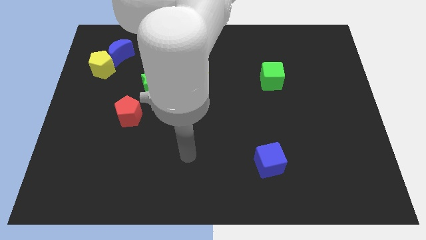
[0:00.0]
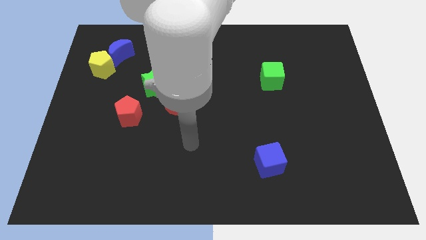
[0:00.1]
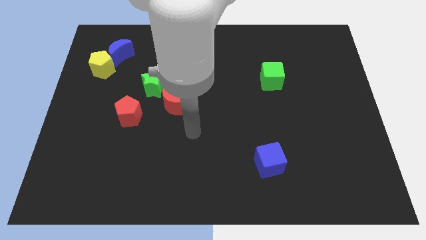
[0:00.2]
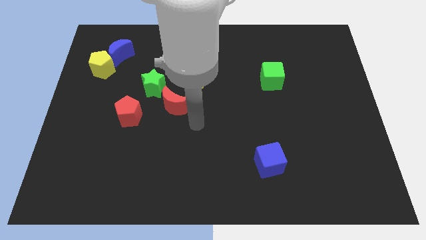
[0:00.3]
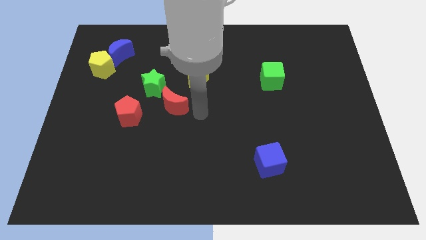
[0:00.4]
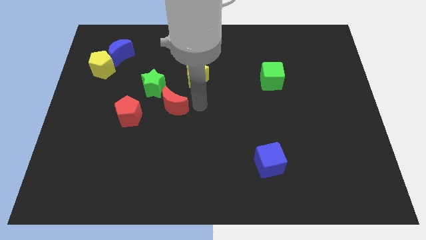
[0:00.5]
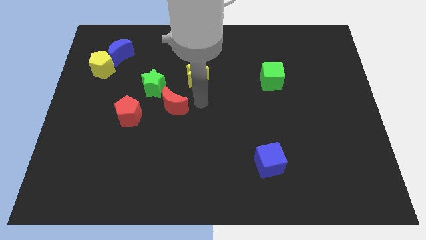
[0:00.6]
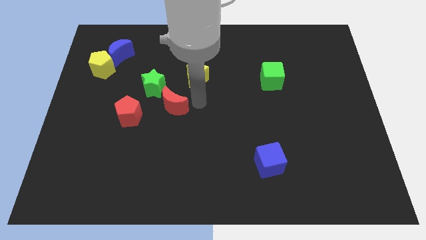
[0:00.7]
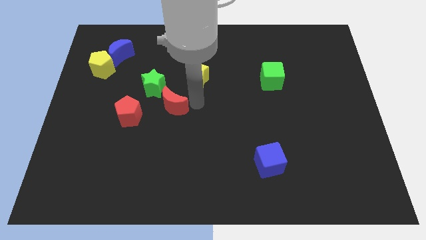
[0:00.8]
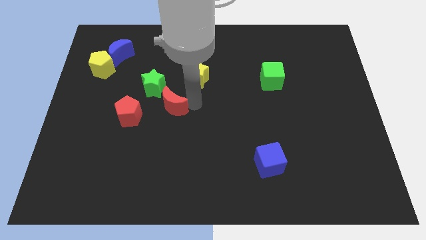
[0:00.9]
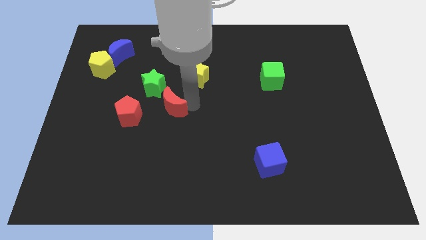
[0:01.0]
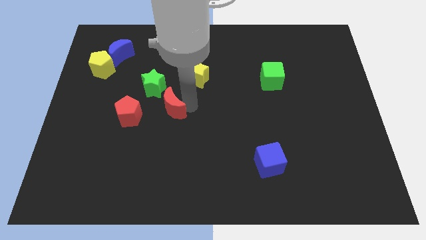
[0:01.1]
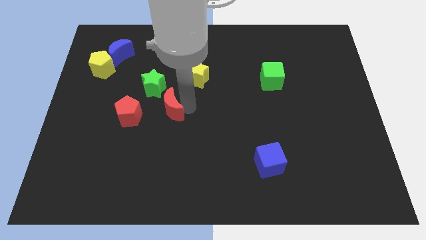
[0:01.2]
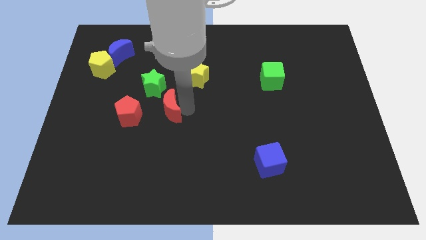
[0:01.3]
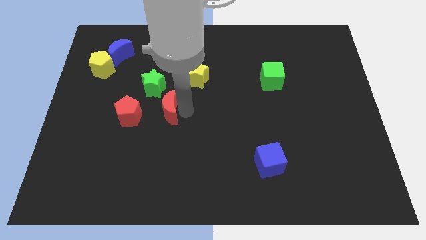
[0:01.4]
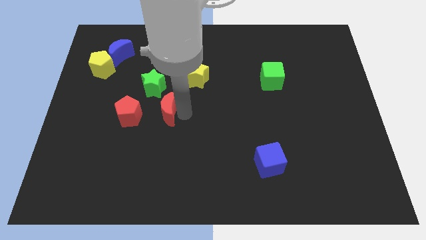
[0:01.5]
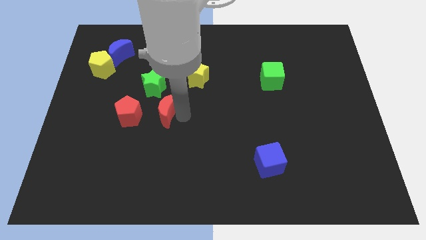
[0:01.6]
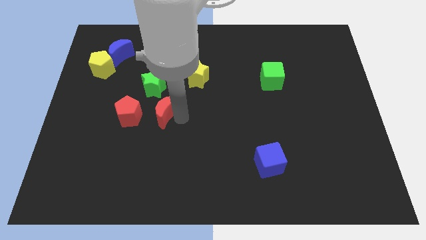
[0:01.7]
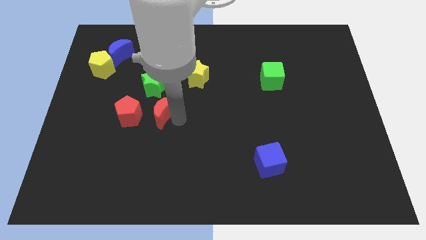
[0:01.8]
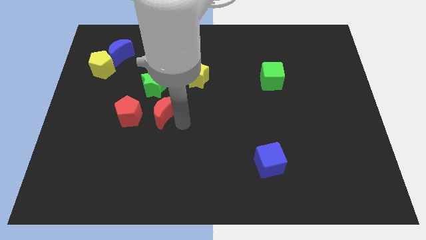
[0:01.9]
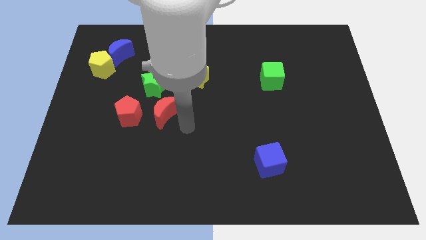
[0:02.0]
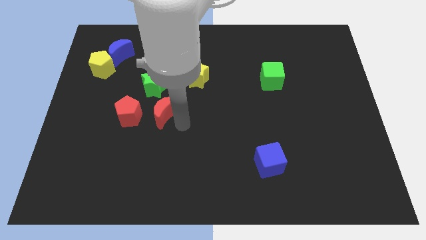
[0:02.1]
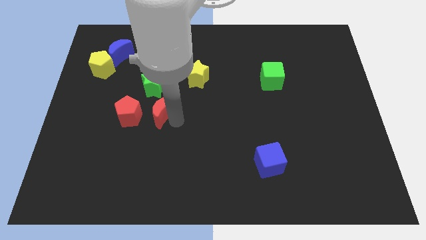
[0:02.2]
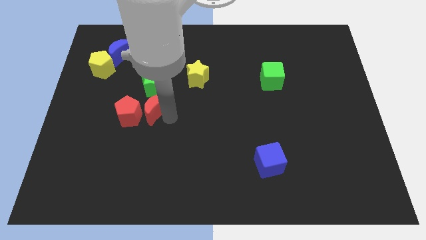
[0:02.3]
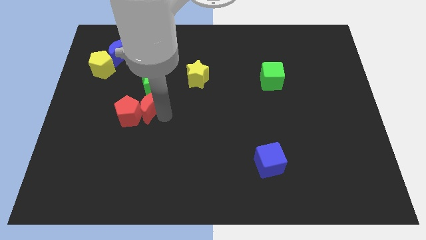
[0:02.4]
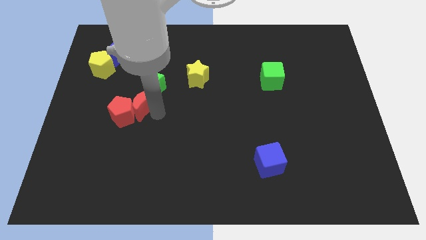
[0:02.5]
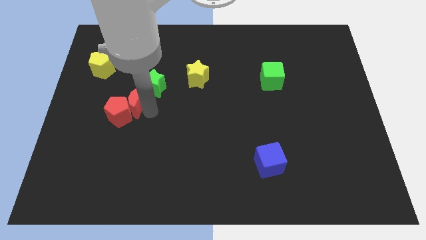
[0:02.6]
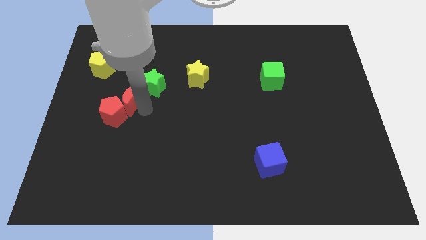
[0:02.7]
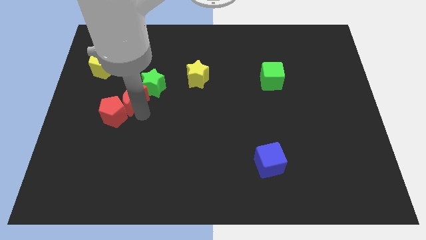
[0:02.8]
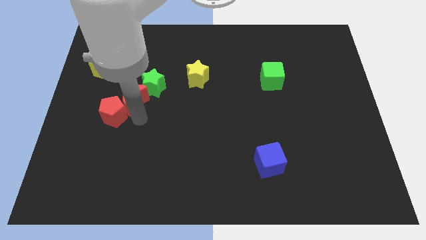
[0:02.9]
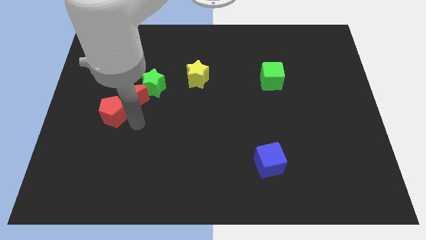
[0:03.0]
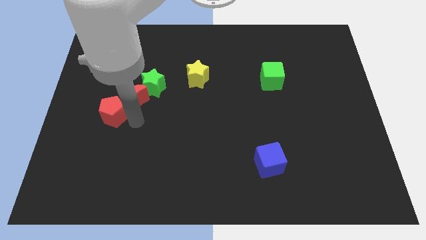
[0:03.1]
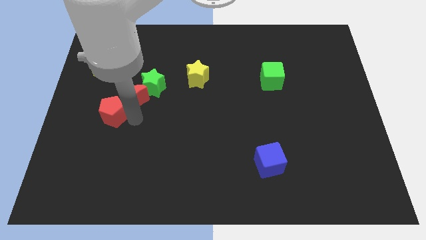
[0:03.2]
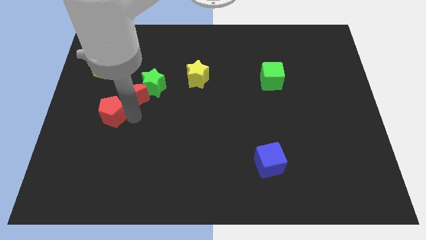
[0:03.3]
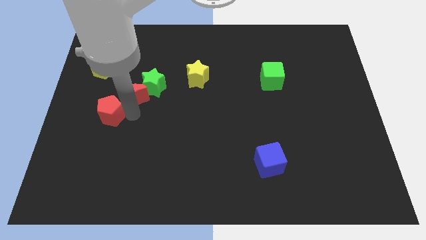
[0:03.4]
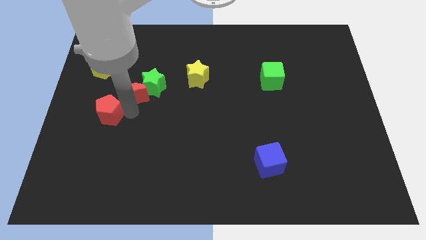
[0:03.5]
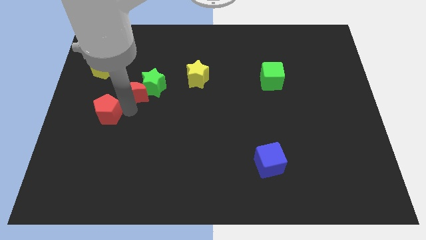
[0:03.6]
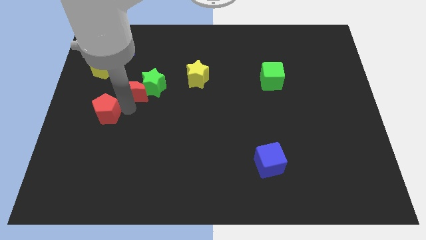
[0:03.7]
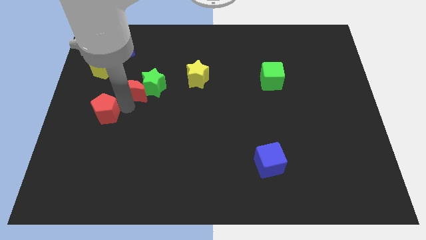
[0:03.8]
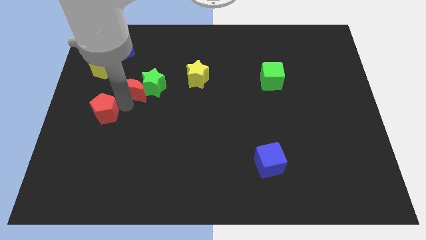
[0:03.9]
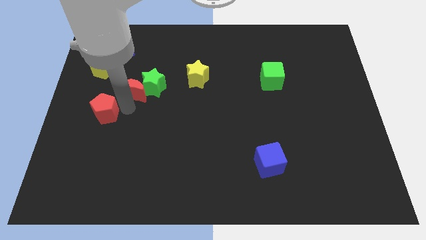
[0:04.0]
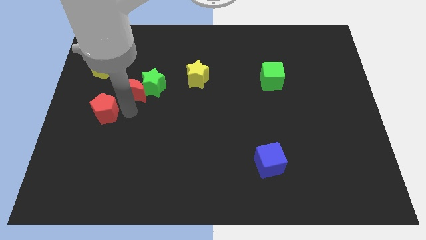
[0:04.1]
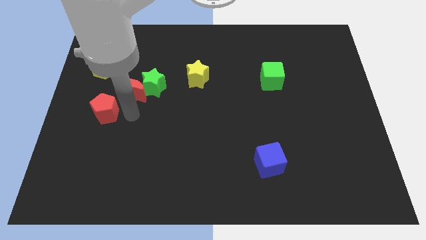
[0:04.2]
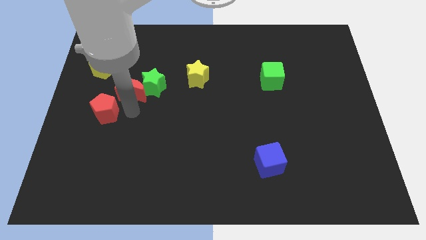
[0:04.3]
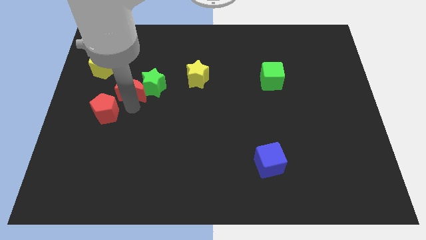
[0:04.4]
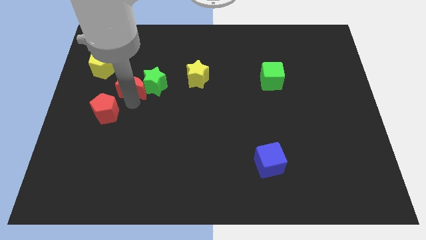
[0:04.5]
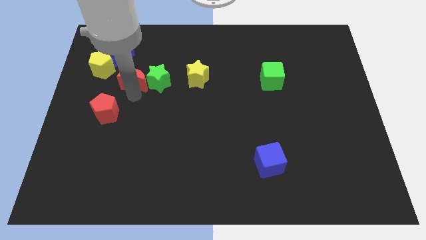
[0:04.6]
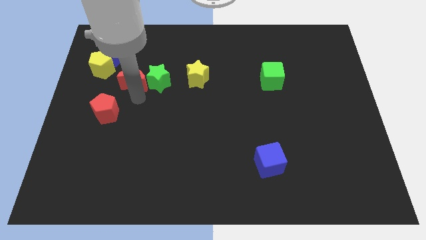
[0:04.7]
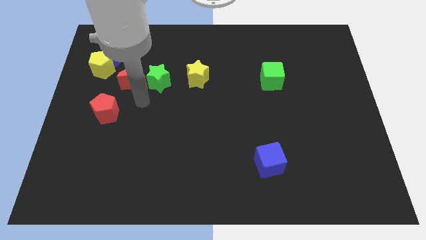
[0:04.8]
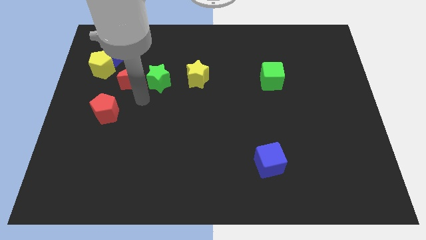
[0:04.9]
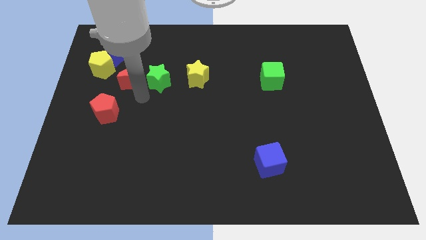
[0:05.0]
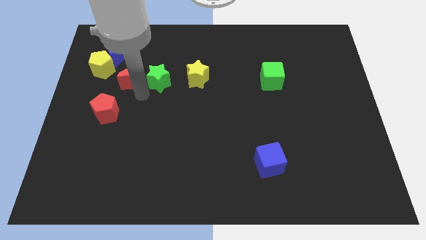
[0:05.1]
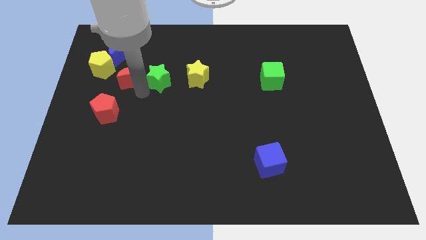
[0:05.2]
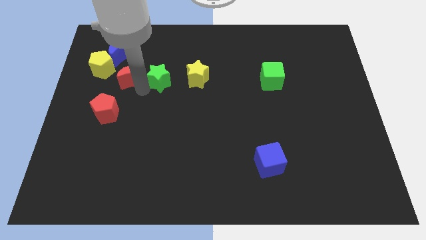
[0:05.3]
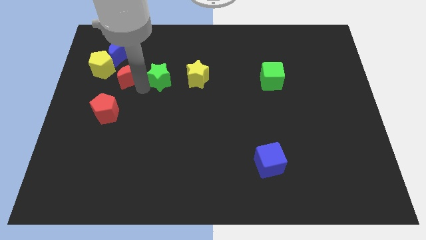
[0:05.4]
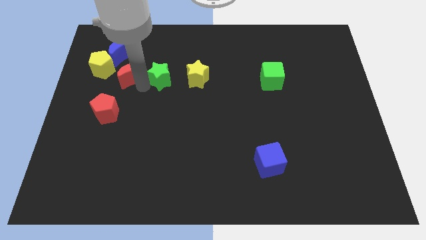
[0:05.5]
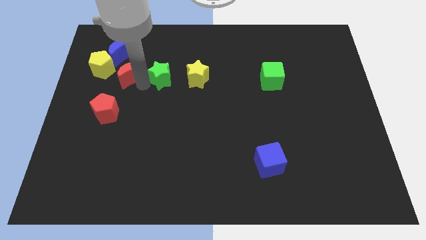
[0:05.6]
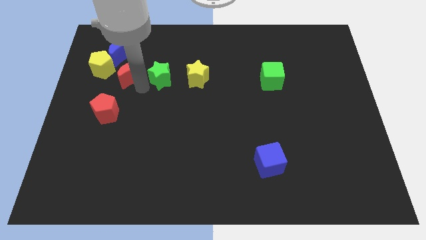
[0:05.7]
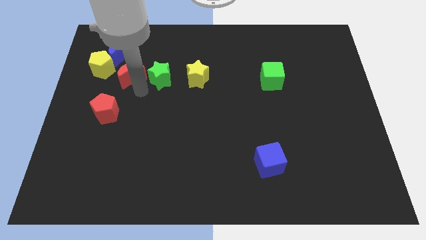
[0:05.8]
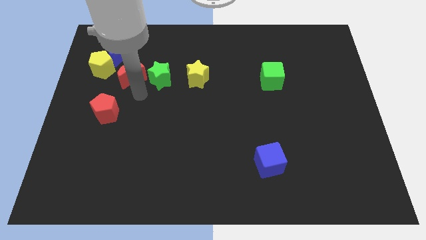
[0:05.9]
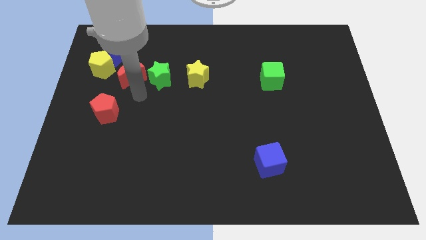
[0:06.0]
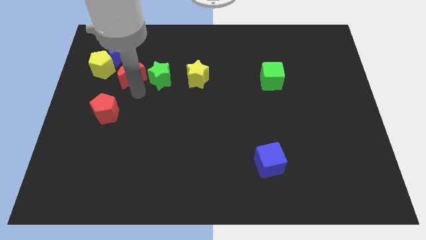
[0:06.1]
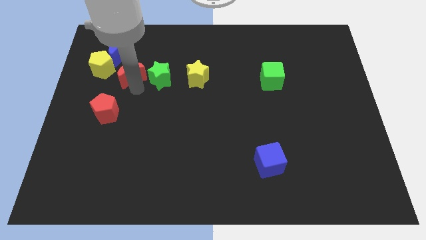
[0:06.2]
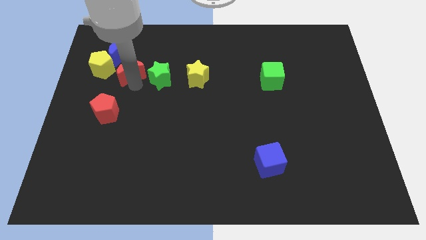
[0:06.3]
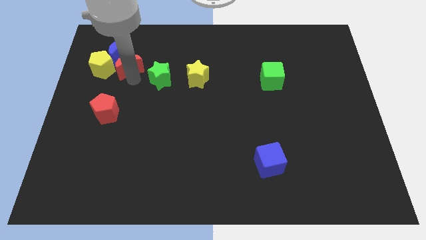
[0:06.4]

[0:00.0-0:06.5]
move the red moon next to the blue moon

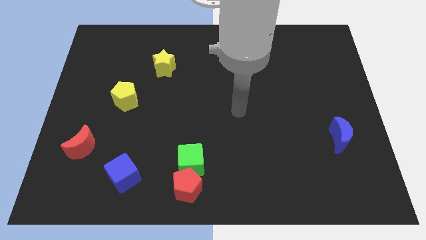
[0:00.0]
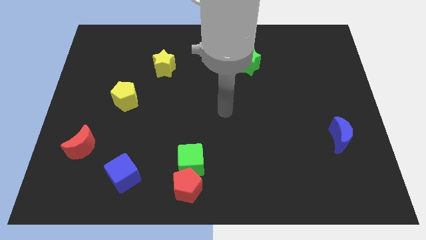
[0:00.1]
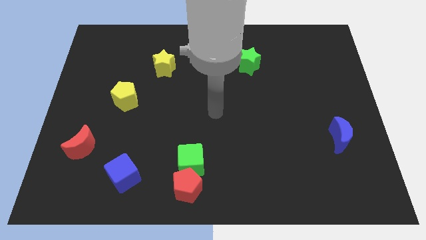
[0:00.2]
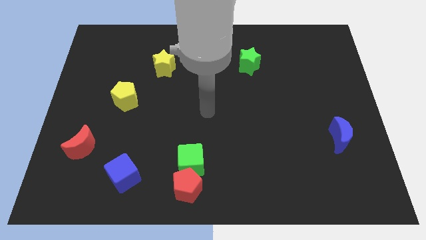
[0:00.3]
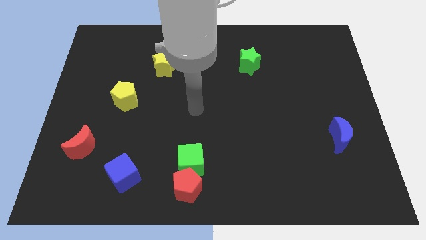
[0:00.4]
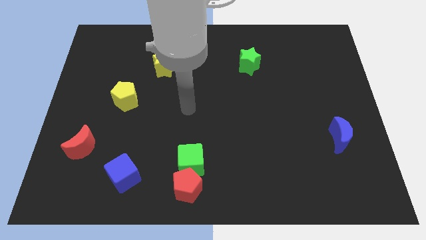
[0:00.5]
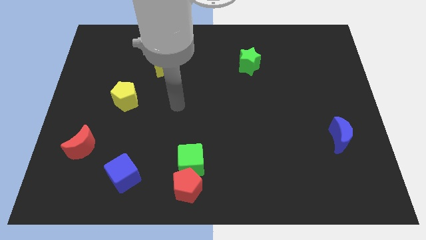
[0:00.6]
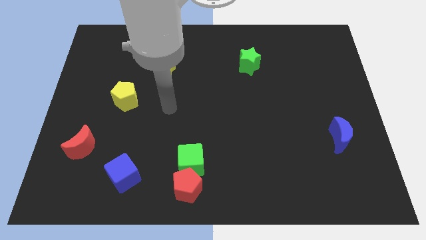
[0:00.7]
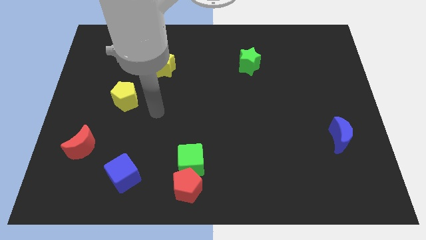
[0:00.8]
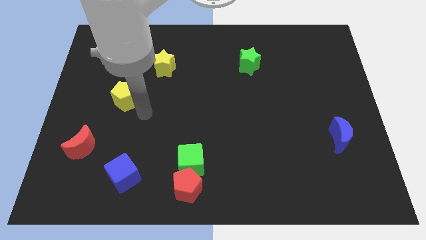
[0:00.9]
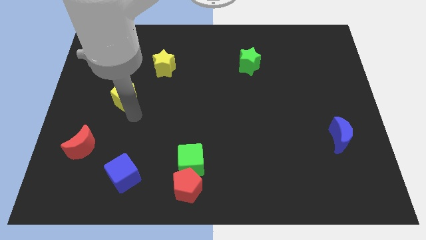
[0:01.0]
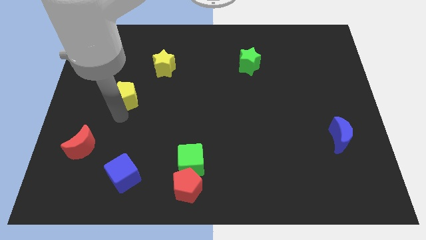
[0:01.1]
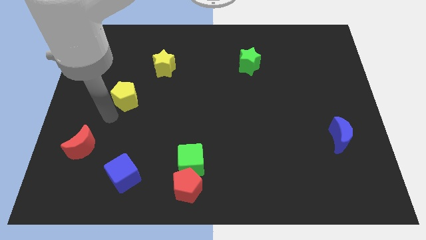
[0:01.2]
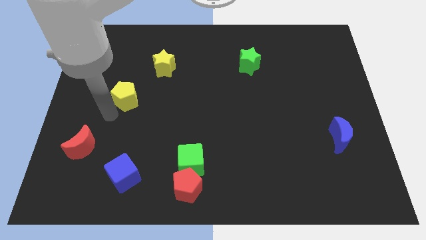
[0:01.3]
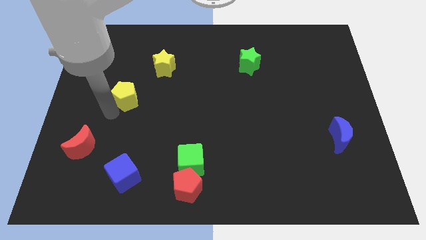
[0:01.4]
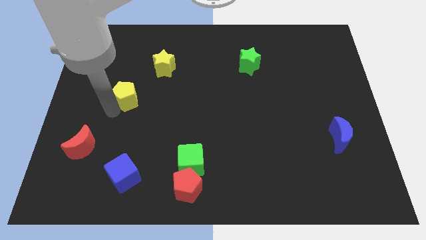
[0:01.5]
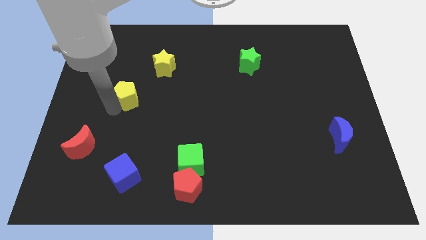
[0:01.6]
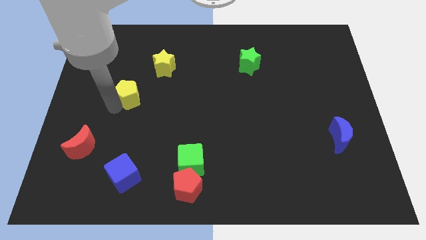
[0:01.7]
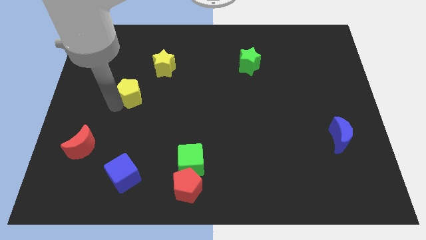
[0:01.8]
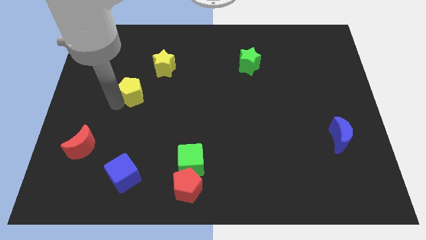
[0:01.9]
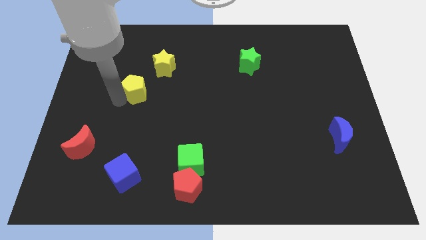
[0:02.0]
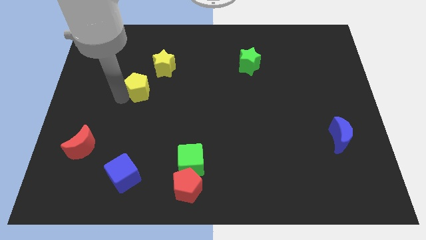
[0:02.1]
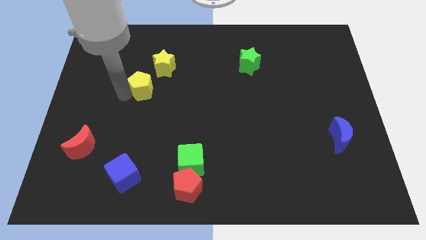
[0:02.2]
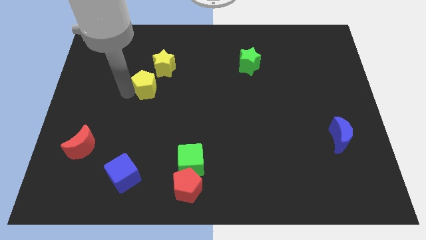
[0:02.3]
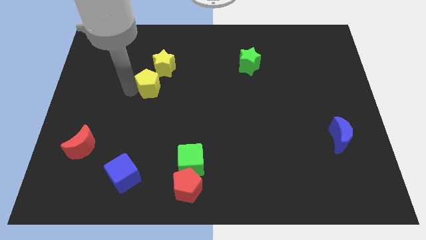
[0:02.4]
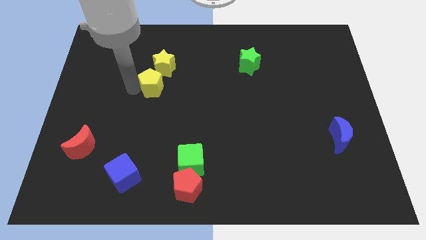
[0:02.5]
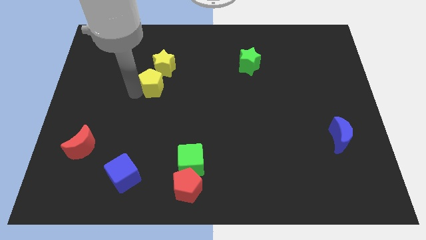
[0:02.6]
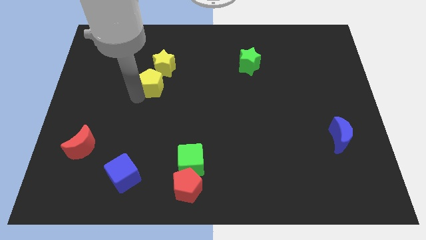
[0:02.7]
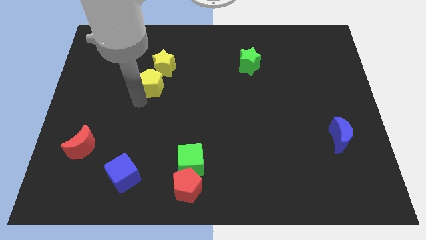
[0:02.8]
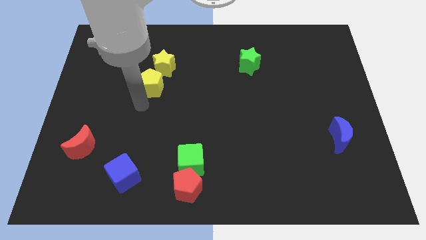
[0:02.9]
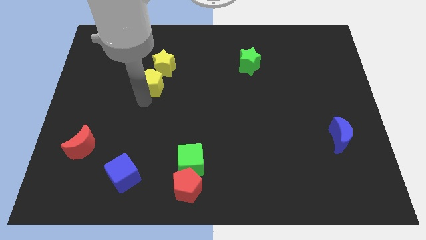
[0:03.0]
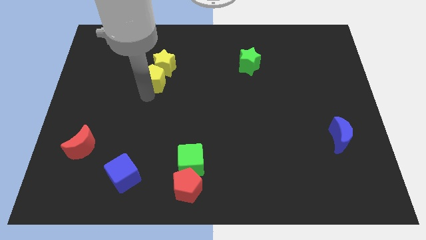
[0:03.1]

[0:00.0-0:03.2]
slide the yellow pentagon close to the yellow star
